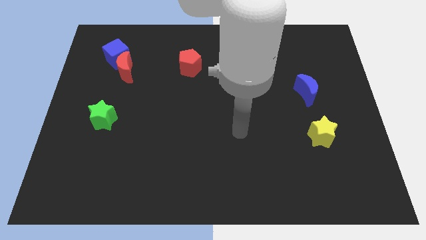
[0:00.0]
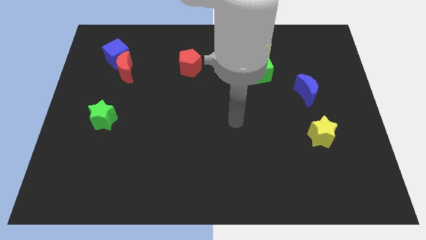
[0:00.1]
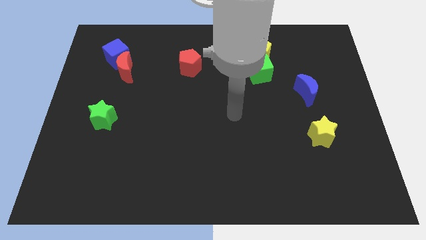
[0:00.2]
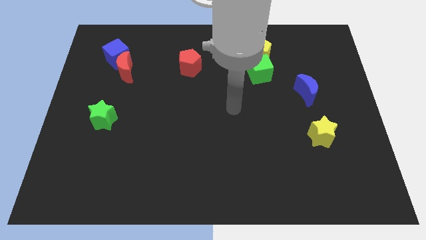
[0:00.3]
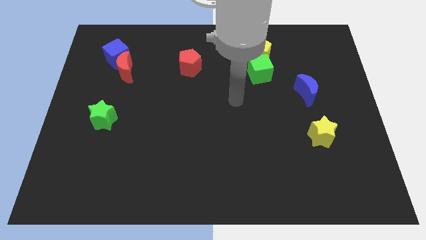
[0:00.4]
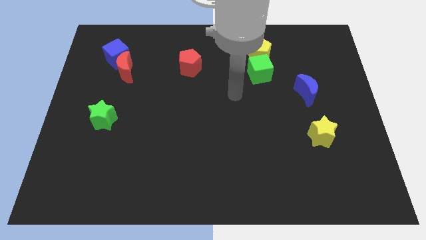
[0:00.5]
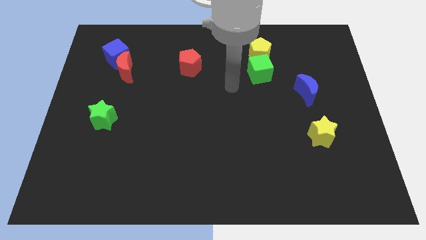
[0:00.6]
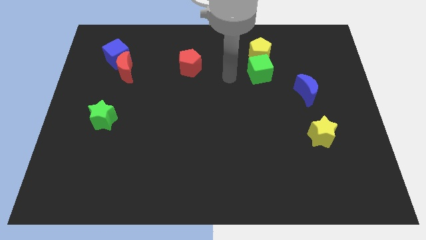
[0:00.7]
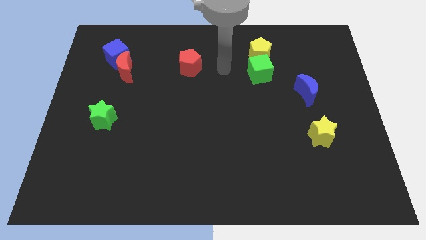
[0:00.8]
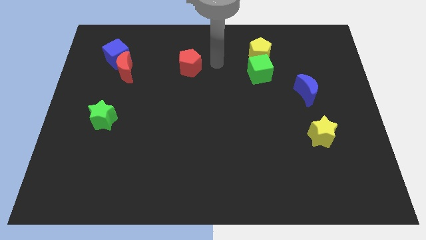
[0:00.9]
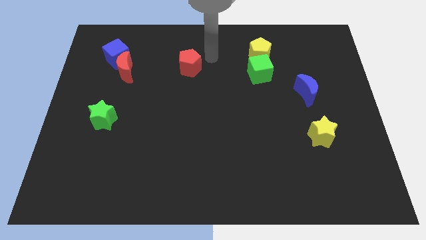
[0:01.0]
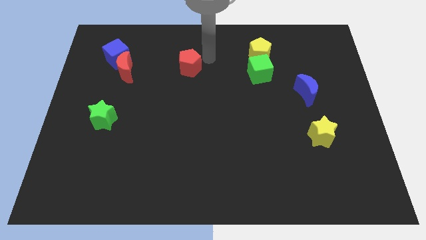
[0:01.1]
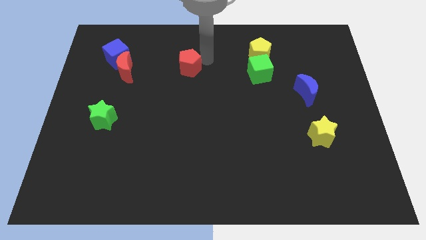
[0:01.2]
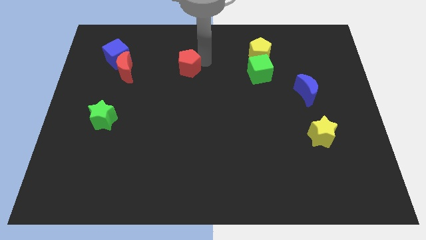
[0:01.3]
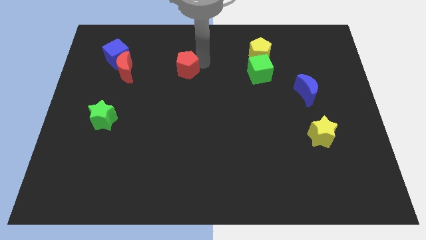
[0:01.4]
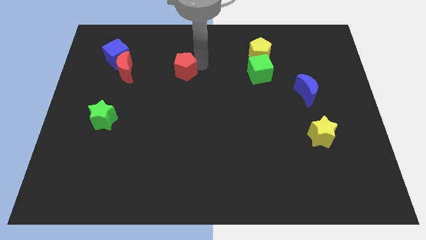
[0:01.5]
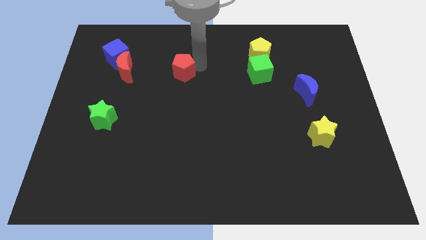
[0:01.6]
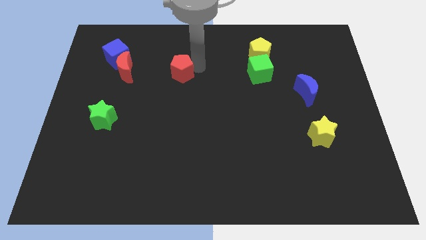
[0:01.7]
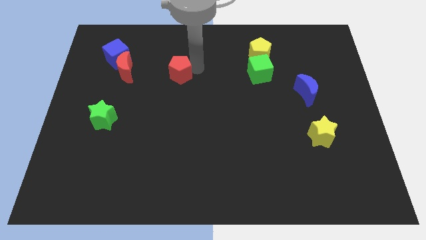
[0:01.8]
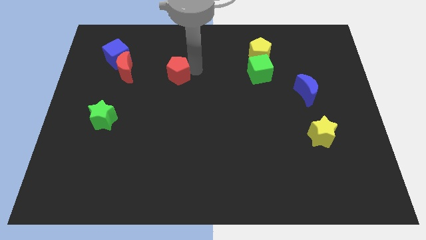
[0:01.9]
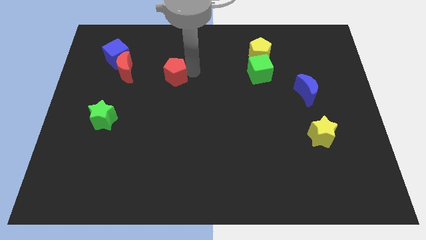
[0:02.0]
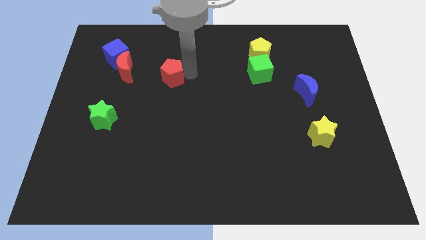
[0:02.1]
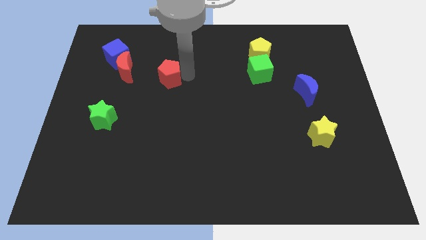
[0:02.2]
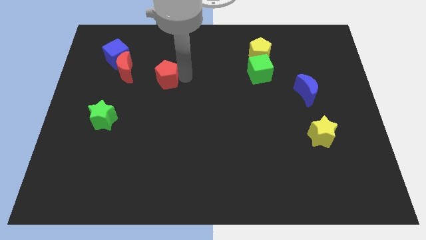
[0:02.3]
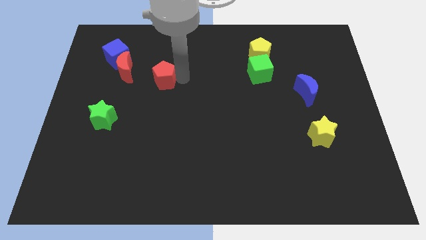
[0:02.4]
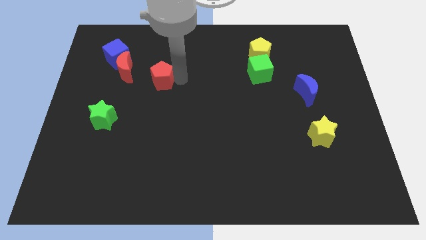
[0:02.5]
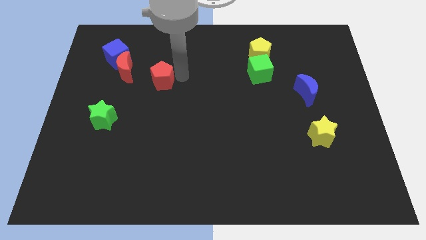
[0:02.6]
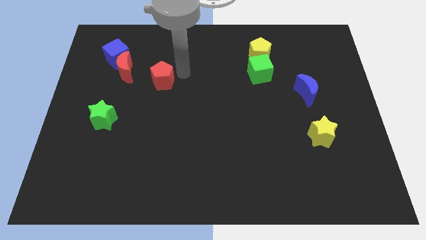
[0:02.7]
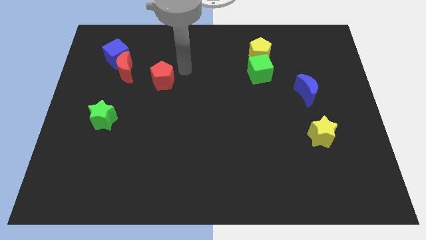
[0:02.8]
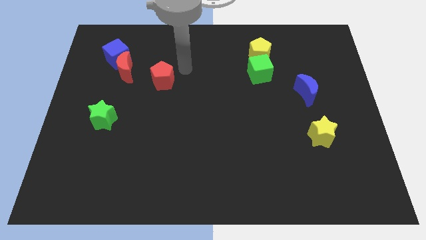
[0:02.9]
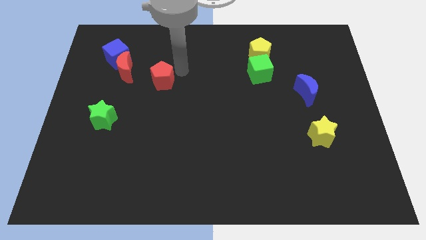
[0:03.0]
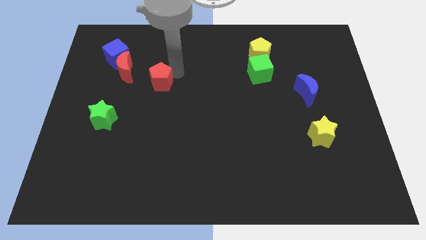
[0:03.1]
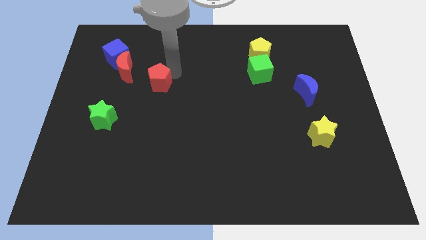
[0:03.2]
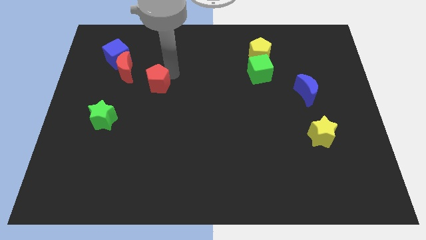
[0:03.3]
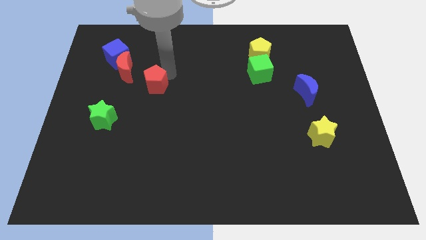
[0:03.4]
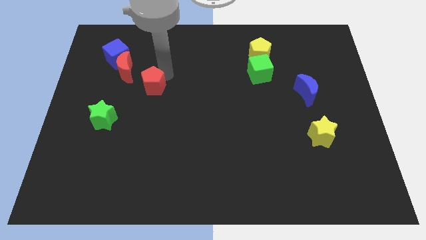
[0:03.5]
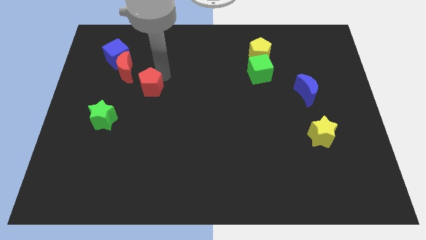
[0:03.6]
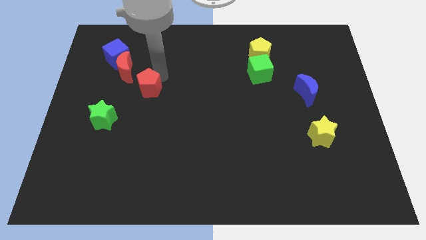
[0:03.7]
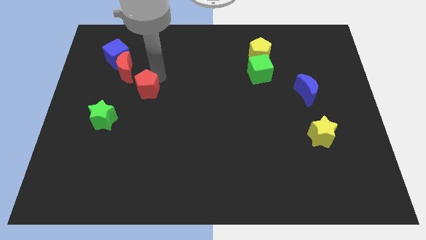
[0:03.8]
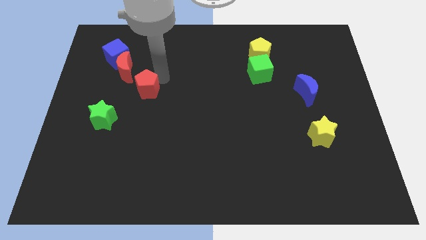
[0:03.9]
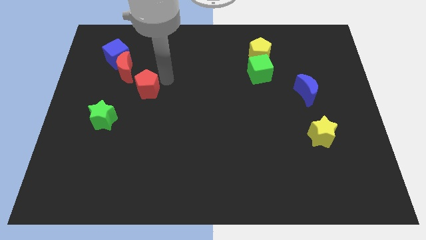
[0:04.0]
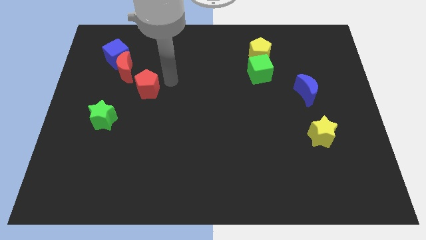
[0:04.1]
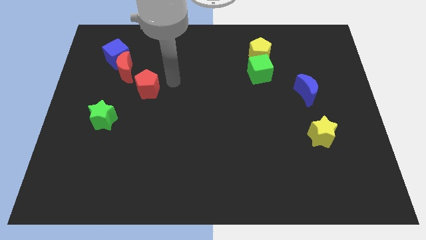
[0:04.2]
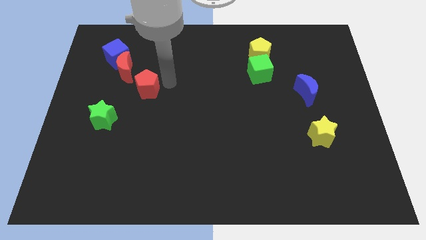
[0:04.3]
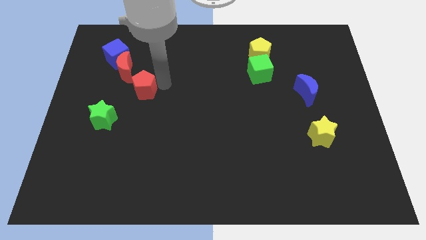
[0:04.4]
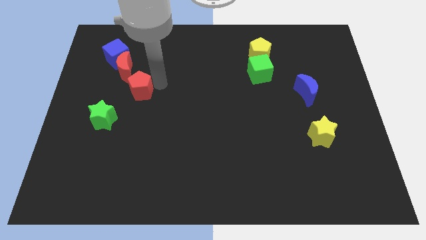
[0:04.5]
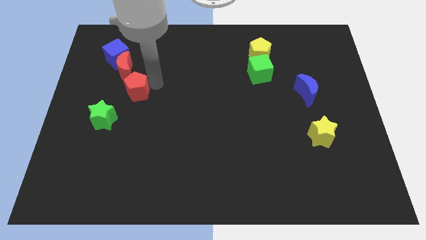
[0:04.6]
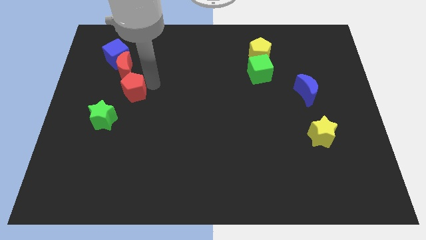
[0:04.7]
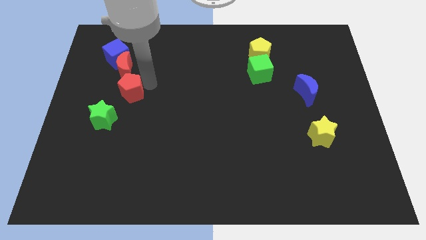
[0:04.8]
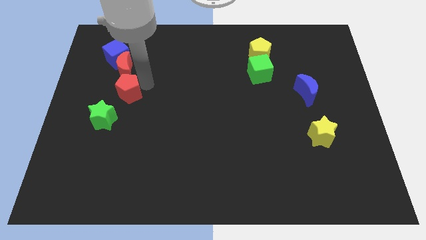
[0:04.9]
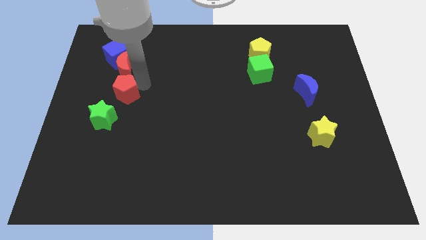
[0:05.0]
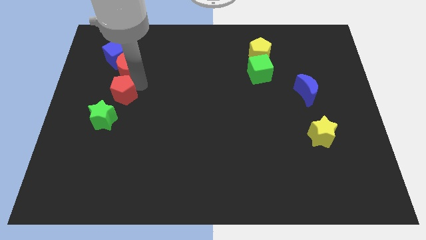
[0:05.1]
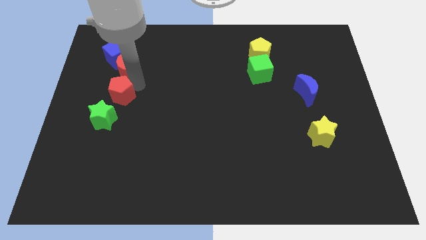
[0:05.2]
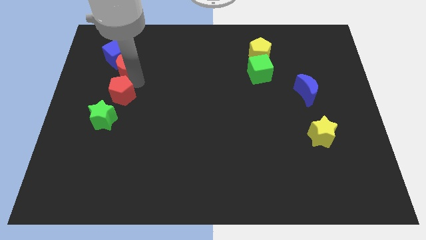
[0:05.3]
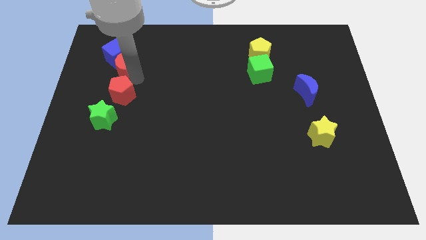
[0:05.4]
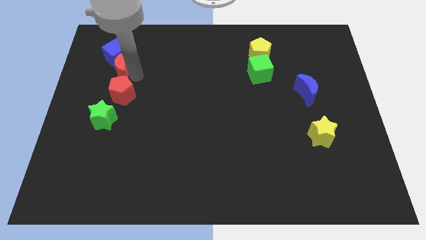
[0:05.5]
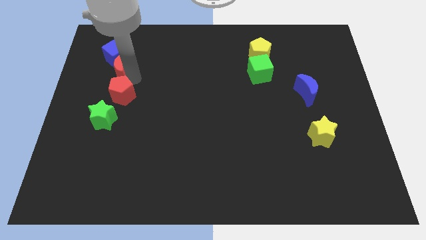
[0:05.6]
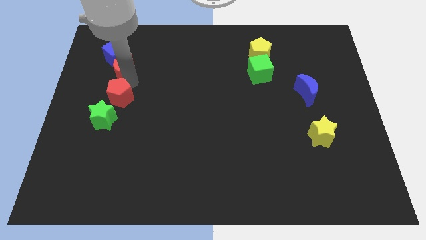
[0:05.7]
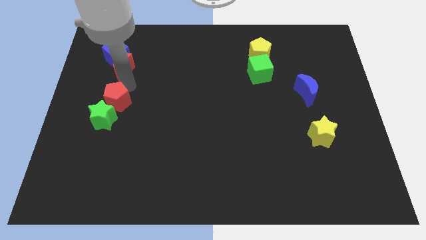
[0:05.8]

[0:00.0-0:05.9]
slide the red pentagon next to the green star
